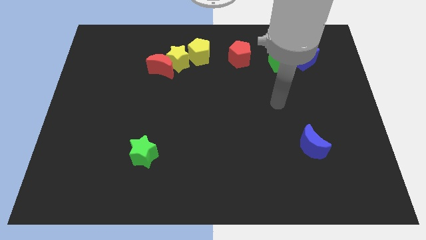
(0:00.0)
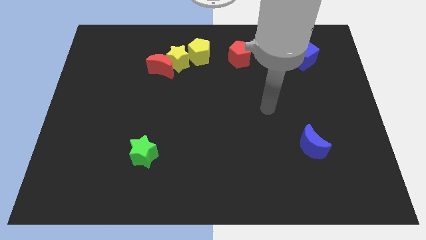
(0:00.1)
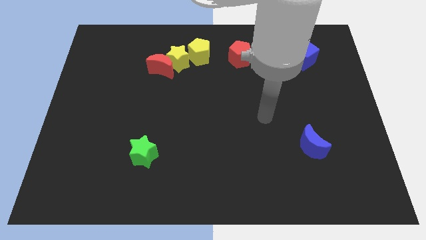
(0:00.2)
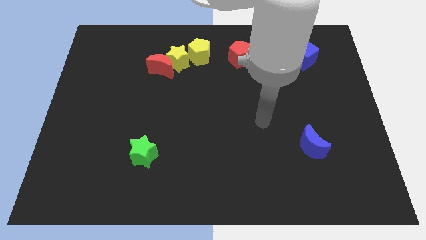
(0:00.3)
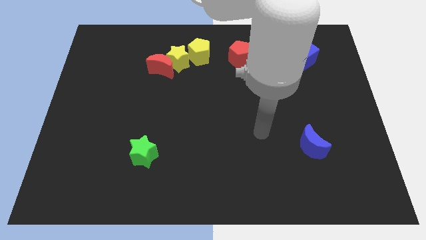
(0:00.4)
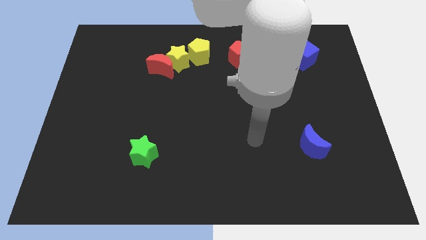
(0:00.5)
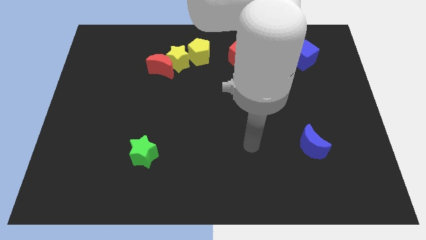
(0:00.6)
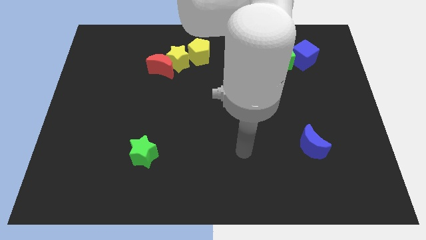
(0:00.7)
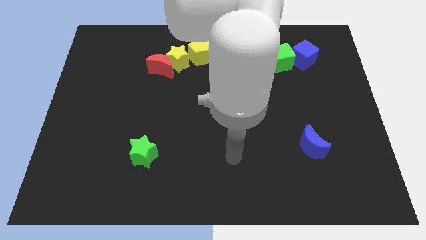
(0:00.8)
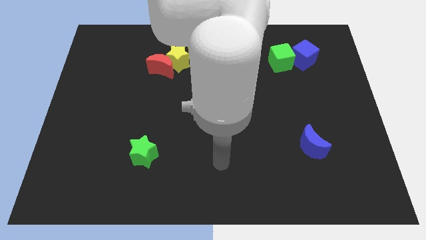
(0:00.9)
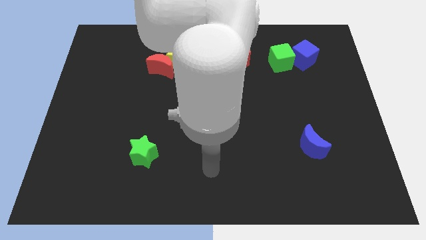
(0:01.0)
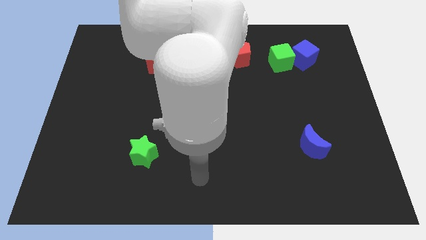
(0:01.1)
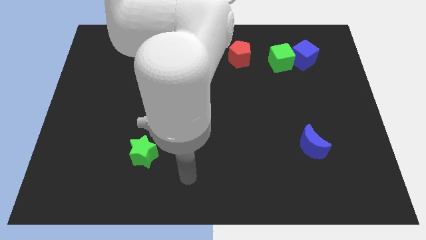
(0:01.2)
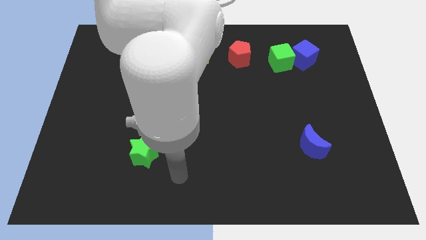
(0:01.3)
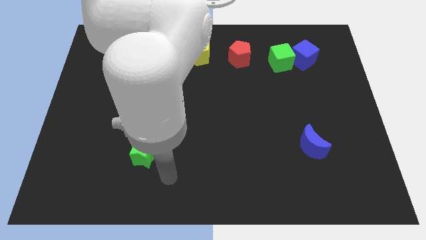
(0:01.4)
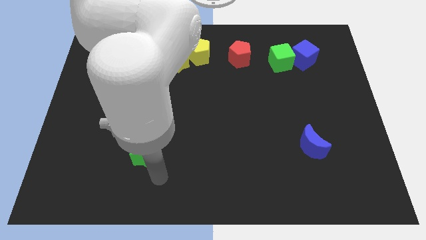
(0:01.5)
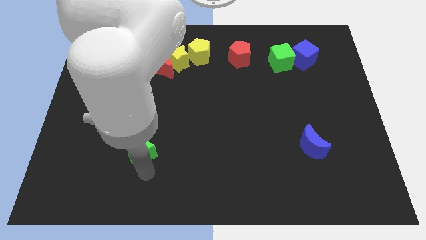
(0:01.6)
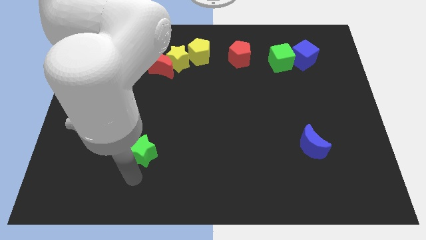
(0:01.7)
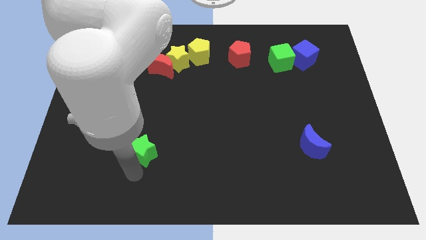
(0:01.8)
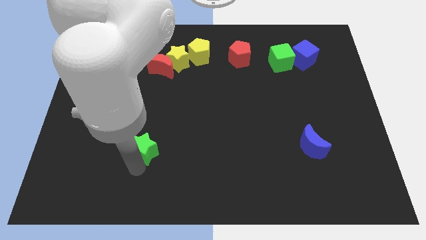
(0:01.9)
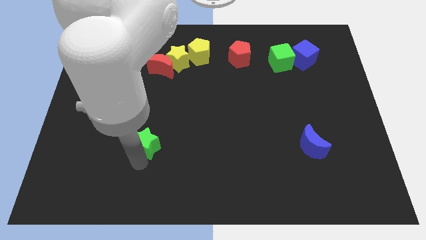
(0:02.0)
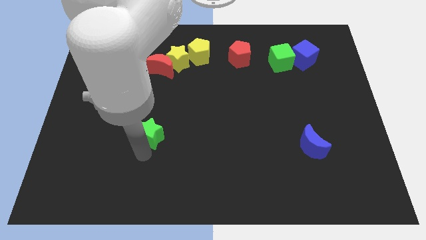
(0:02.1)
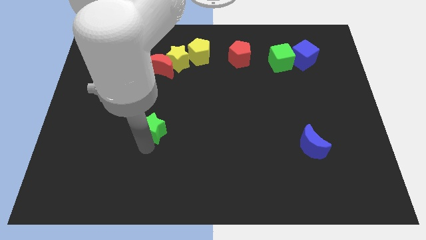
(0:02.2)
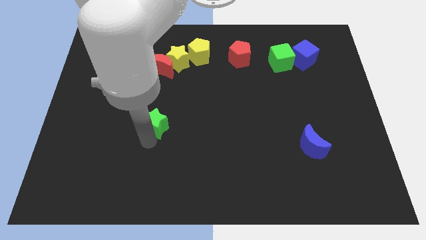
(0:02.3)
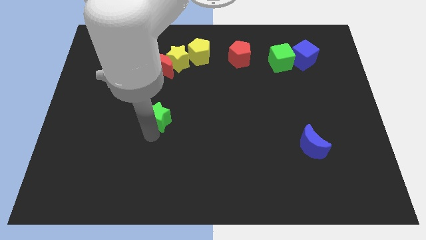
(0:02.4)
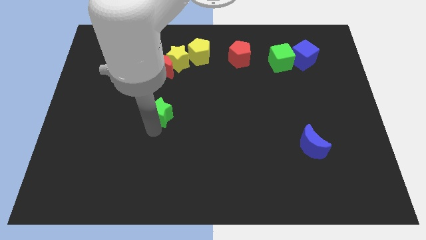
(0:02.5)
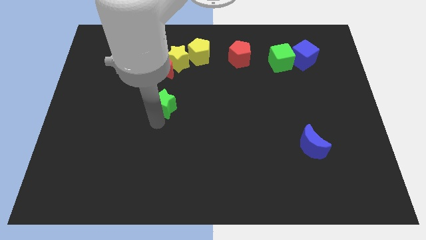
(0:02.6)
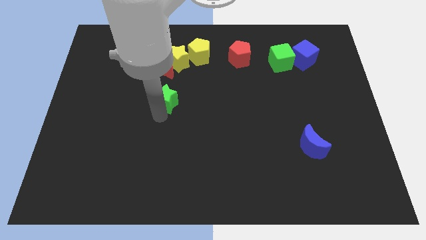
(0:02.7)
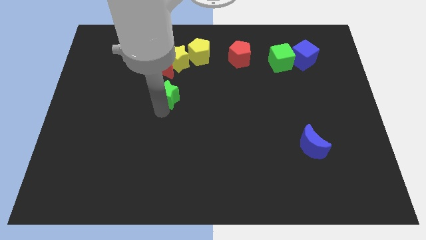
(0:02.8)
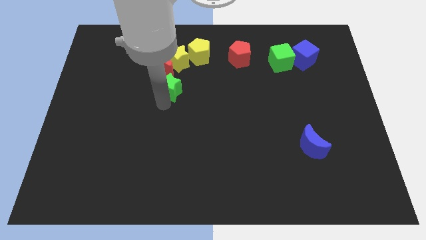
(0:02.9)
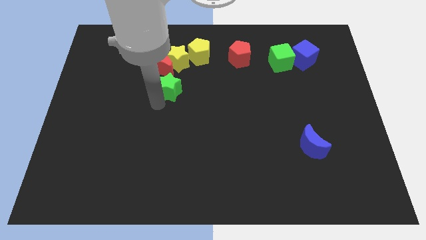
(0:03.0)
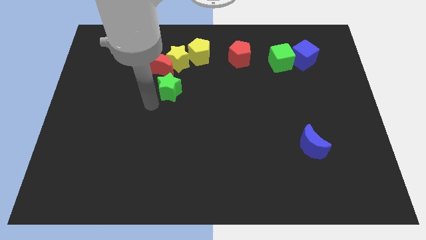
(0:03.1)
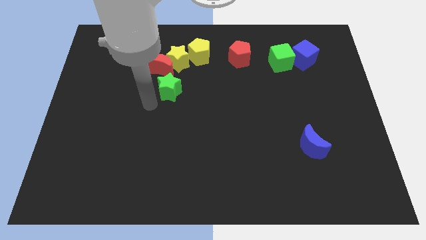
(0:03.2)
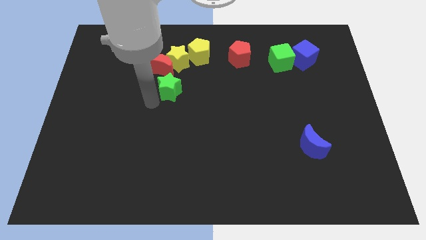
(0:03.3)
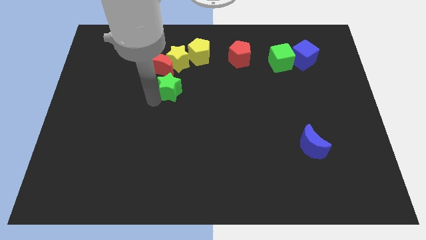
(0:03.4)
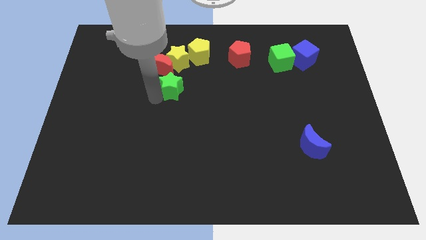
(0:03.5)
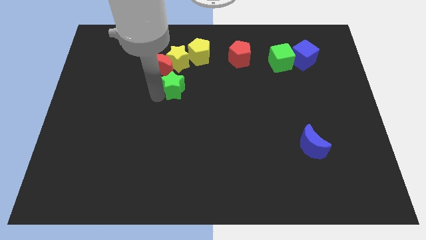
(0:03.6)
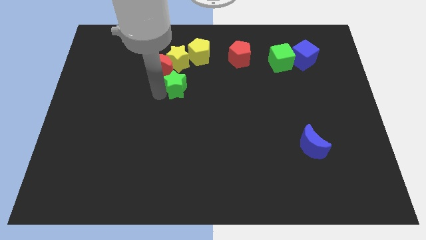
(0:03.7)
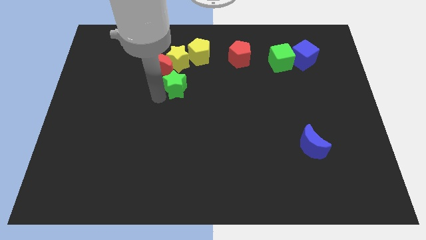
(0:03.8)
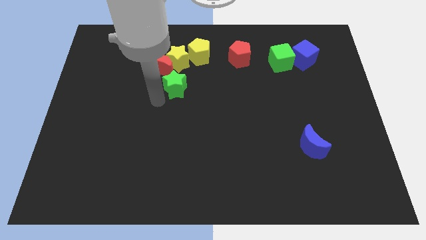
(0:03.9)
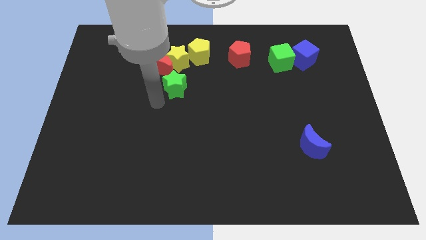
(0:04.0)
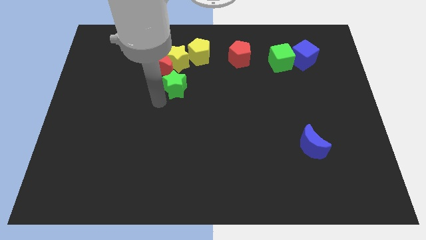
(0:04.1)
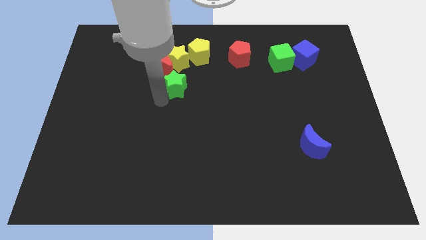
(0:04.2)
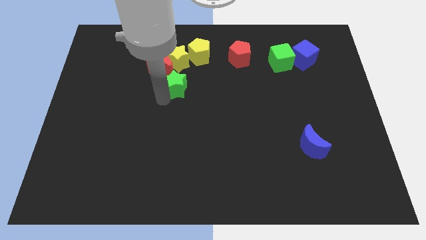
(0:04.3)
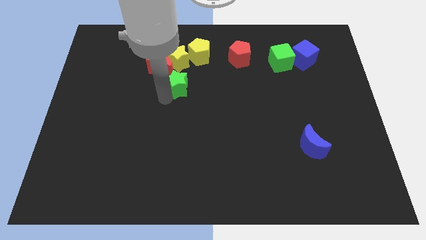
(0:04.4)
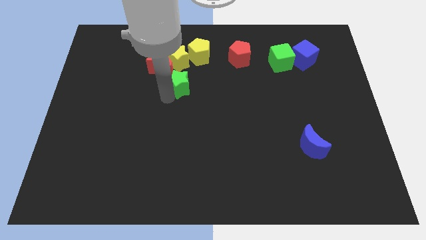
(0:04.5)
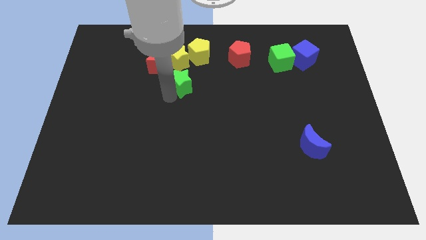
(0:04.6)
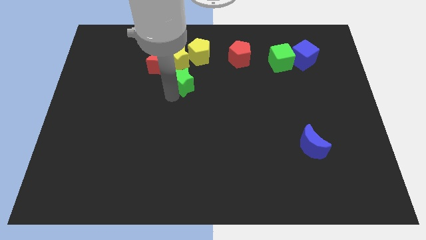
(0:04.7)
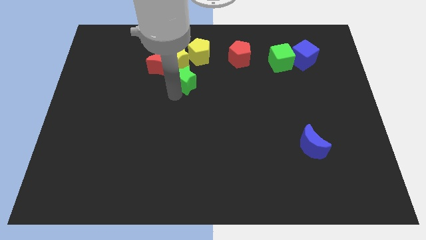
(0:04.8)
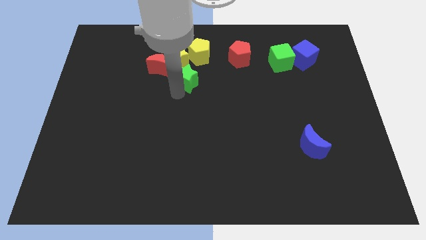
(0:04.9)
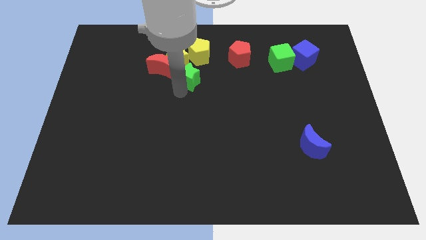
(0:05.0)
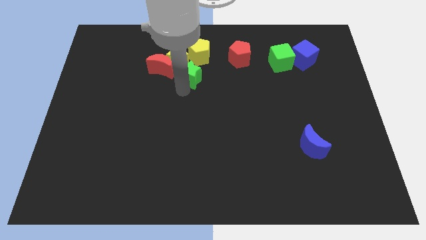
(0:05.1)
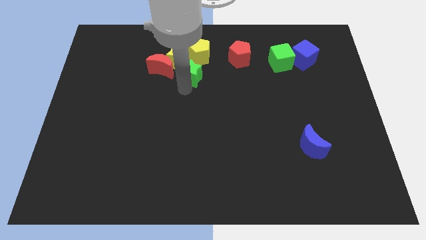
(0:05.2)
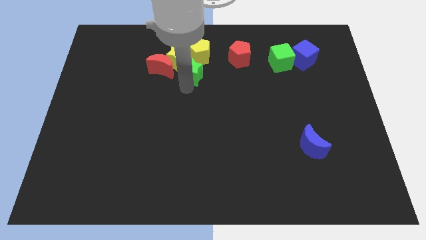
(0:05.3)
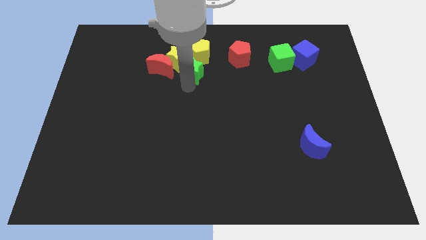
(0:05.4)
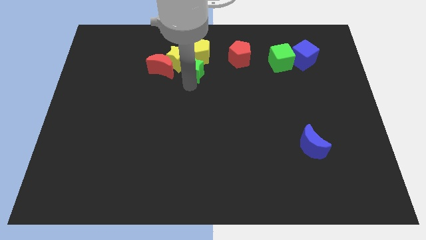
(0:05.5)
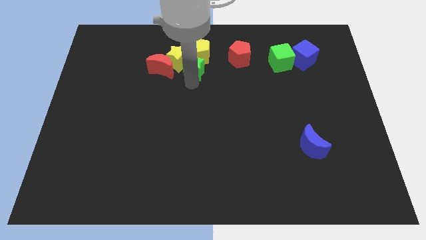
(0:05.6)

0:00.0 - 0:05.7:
push the green star towards the yellow pentagon
